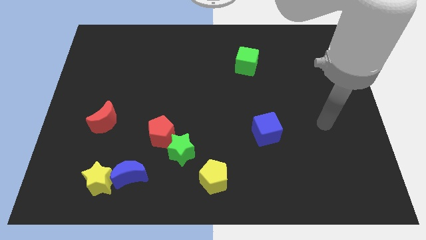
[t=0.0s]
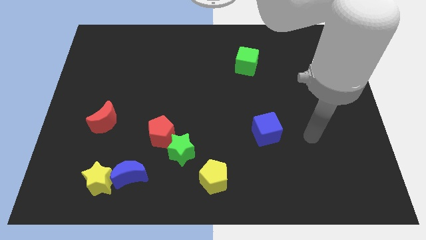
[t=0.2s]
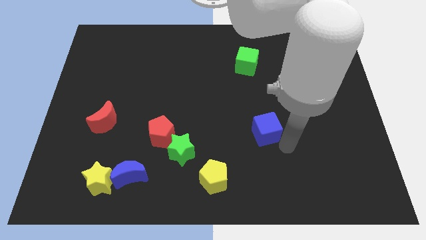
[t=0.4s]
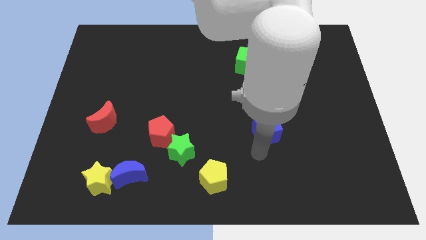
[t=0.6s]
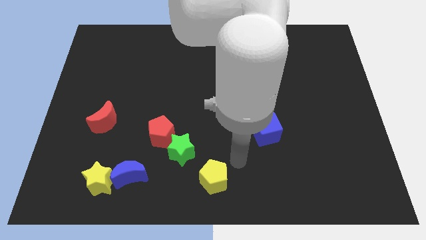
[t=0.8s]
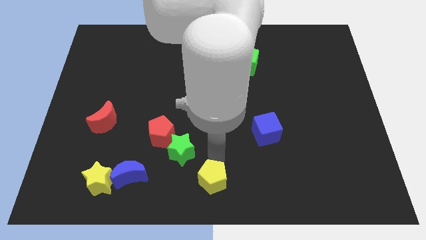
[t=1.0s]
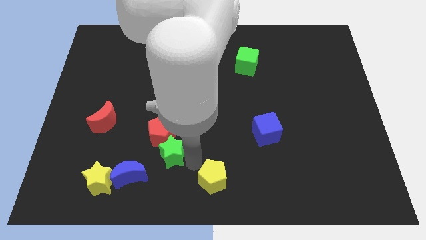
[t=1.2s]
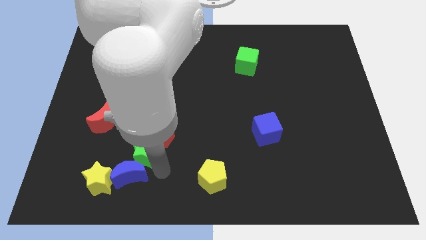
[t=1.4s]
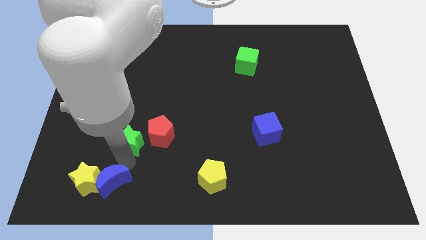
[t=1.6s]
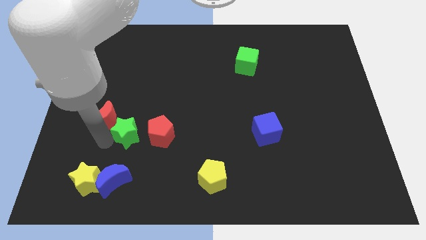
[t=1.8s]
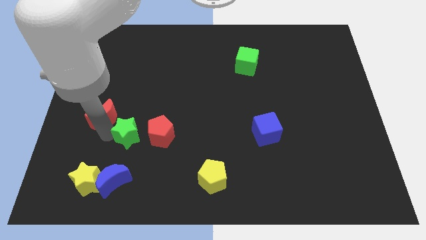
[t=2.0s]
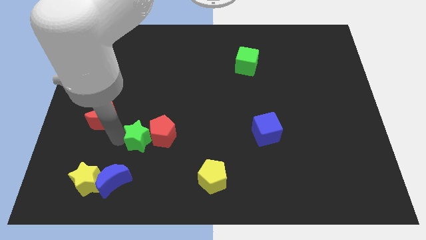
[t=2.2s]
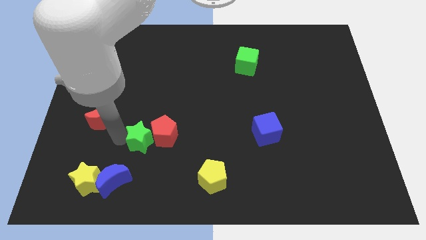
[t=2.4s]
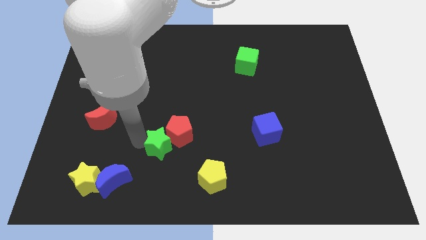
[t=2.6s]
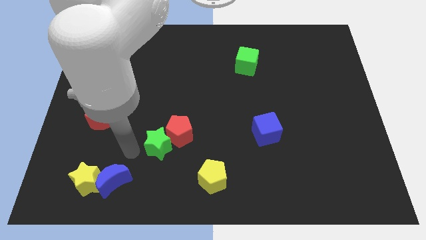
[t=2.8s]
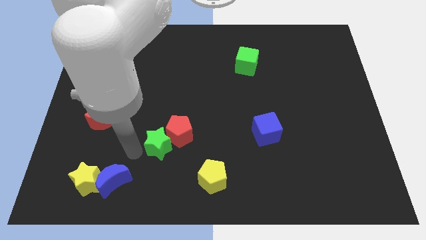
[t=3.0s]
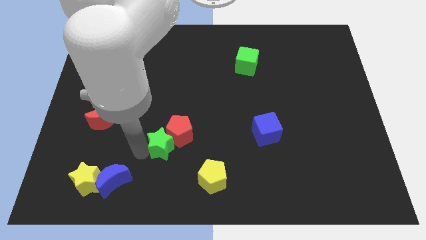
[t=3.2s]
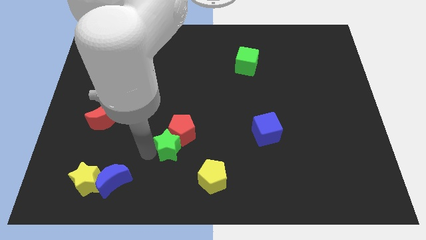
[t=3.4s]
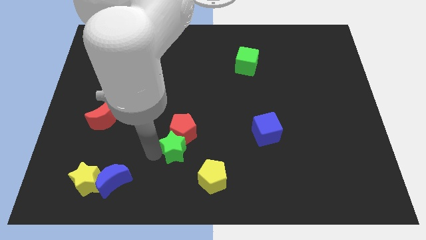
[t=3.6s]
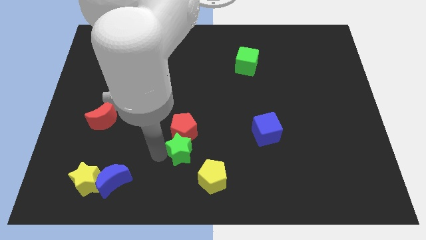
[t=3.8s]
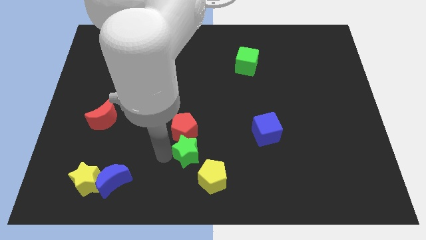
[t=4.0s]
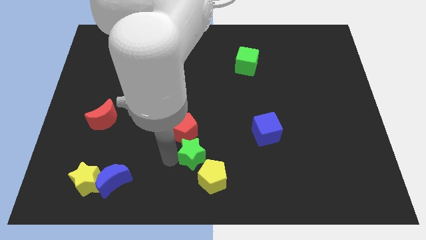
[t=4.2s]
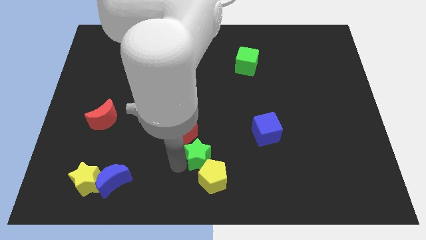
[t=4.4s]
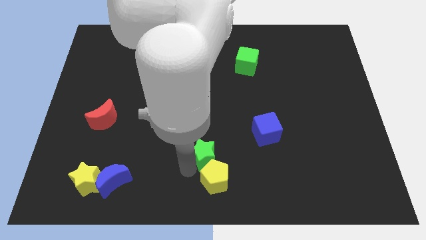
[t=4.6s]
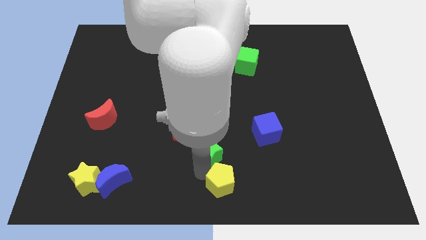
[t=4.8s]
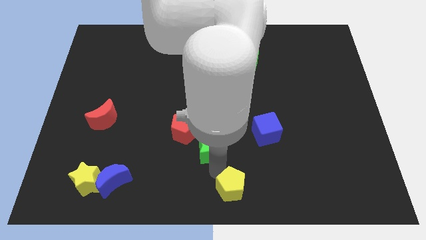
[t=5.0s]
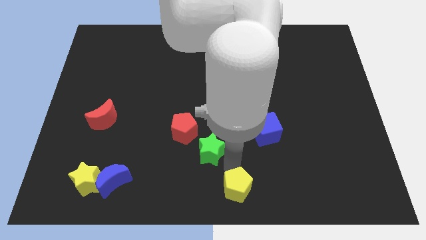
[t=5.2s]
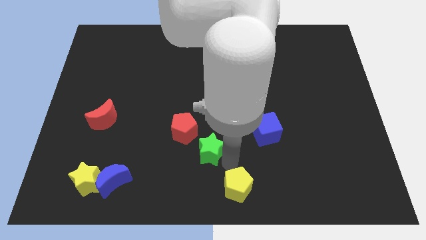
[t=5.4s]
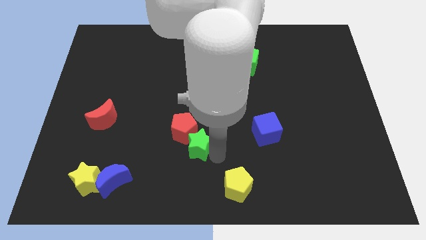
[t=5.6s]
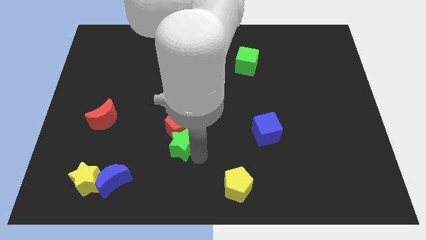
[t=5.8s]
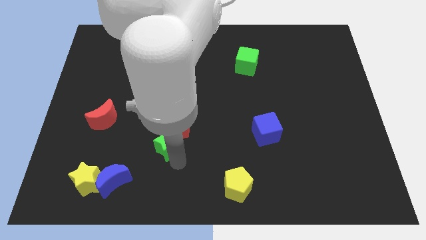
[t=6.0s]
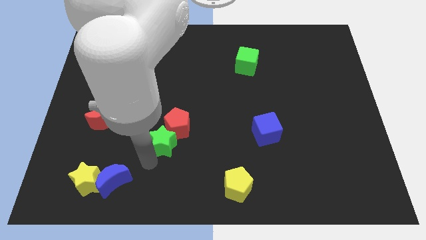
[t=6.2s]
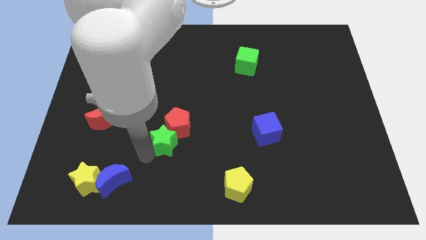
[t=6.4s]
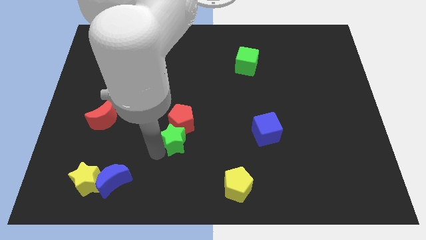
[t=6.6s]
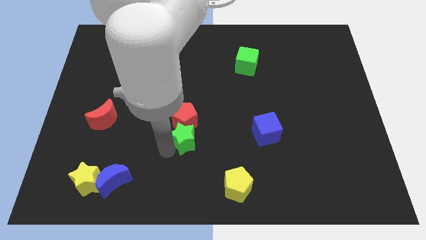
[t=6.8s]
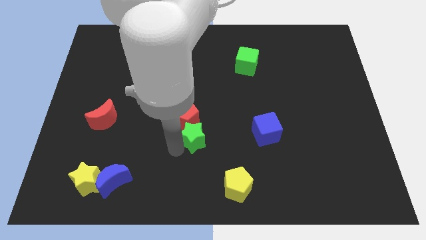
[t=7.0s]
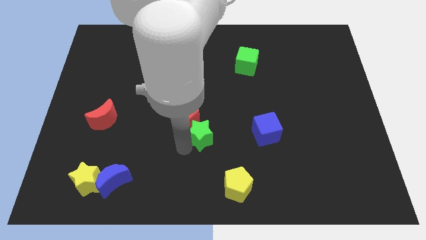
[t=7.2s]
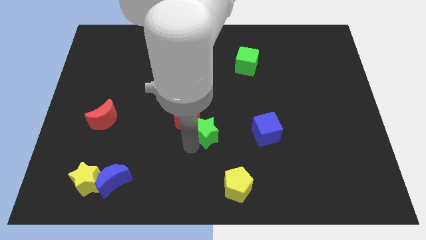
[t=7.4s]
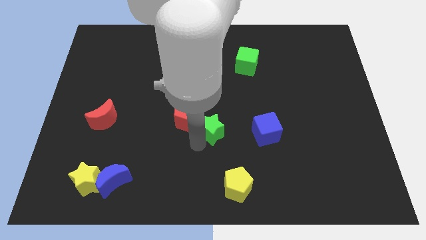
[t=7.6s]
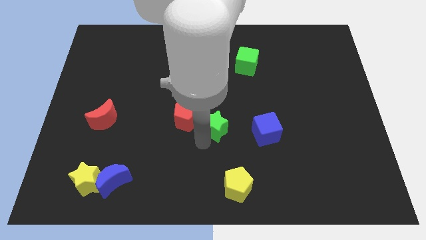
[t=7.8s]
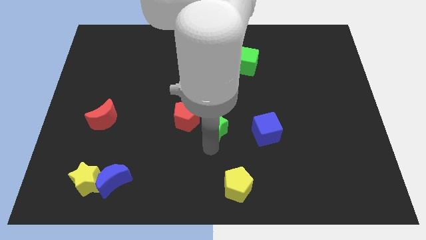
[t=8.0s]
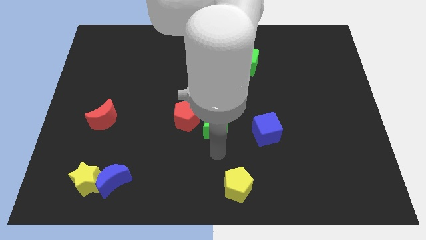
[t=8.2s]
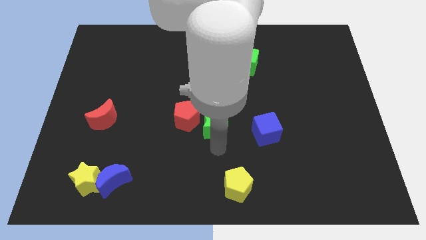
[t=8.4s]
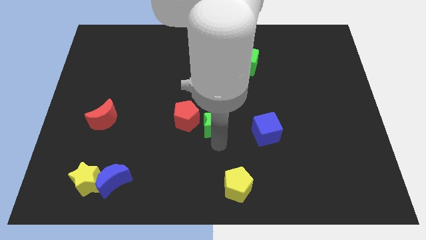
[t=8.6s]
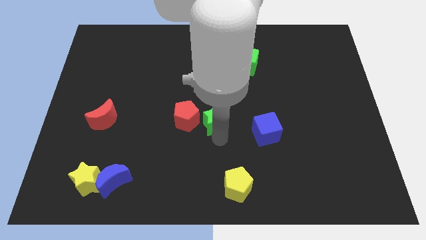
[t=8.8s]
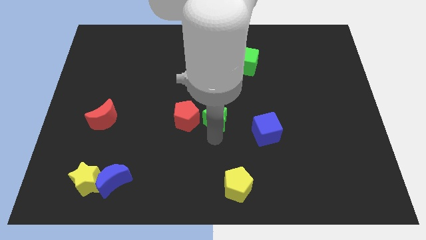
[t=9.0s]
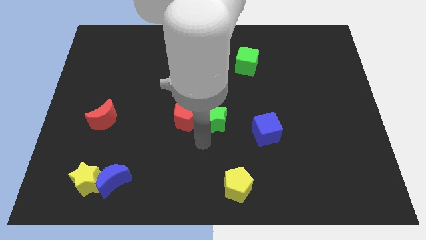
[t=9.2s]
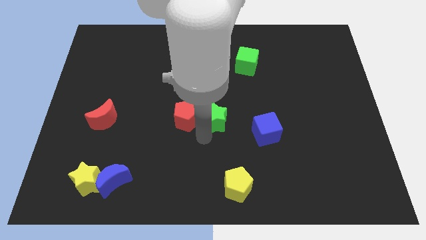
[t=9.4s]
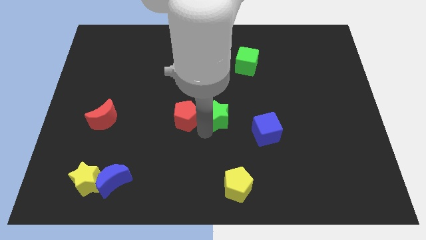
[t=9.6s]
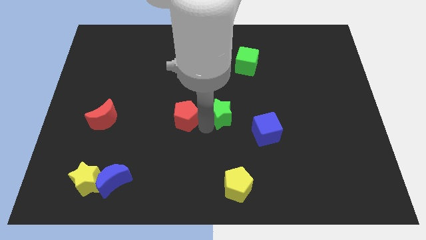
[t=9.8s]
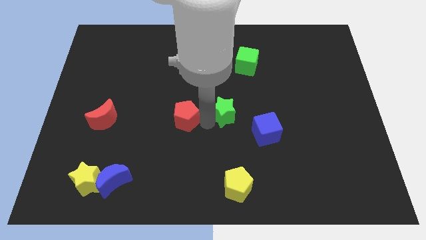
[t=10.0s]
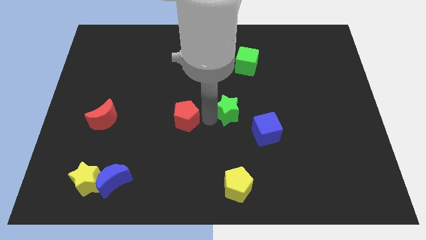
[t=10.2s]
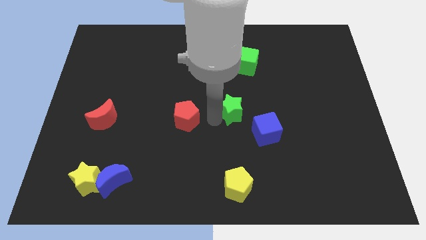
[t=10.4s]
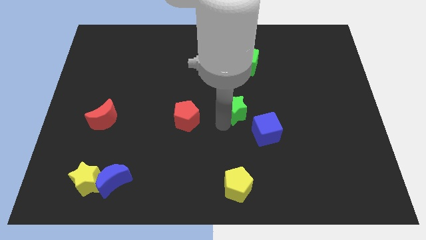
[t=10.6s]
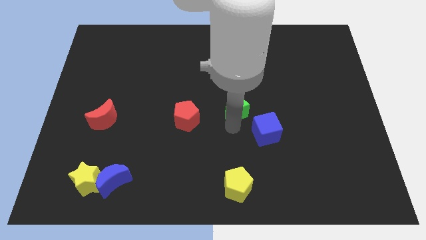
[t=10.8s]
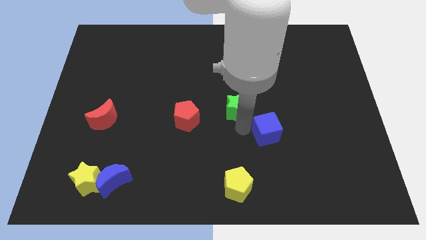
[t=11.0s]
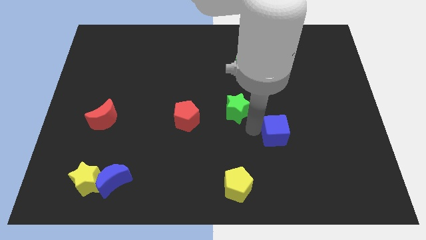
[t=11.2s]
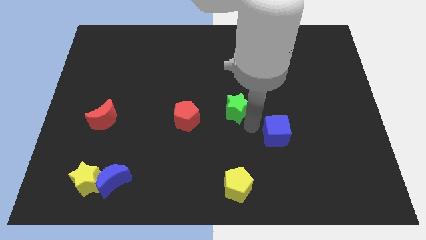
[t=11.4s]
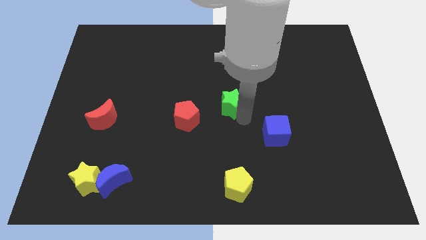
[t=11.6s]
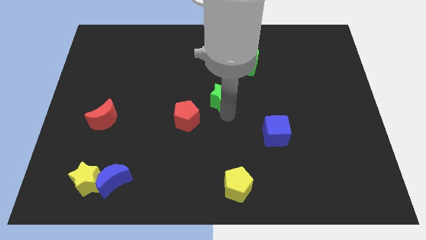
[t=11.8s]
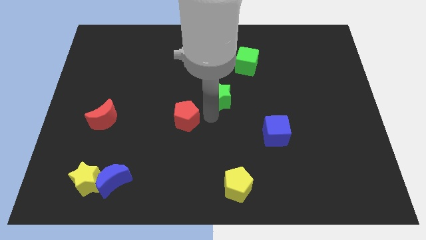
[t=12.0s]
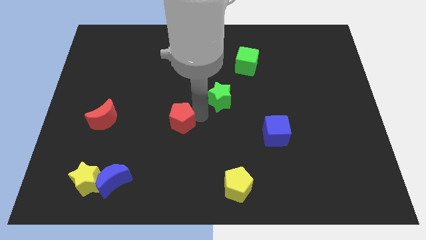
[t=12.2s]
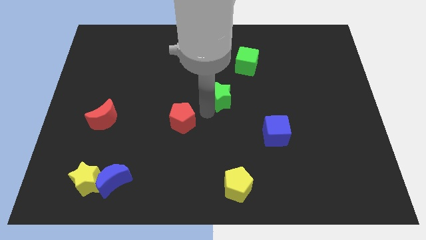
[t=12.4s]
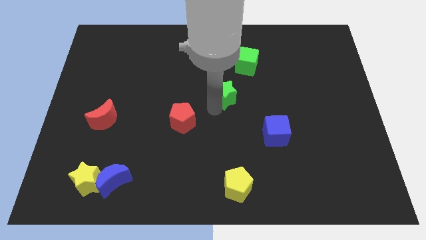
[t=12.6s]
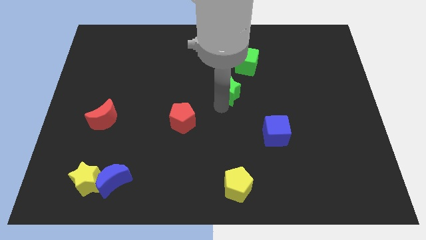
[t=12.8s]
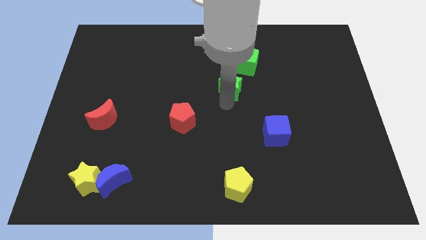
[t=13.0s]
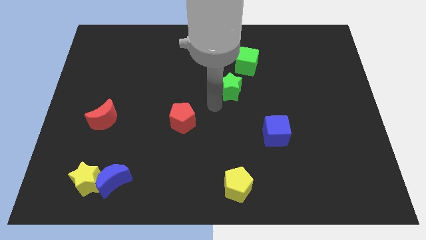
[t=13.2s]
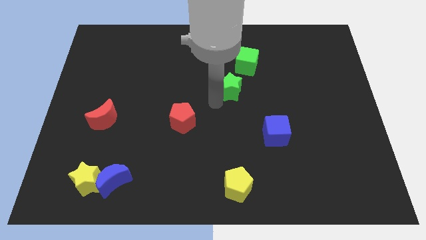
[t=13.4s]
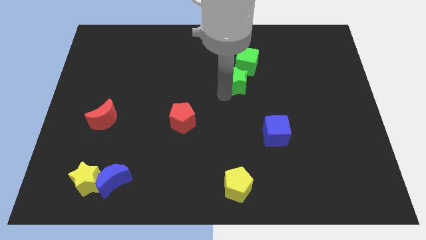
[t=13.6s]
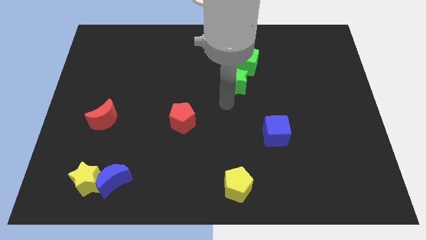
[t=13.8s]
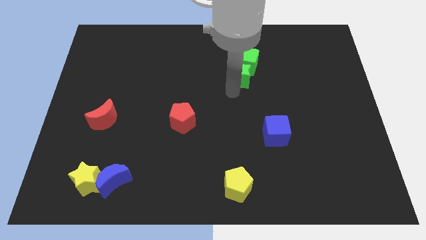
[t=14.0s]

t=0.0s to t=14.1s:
slide the green star to the green cube
